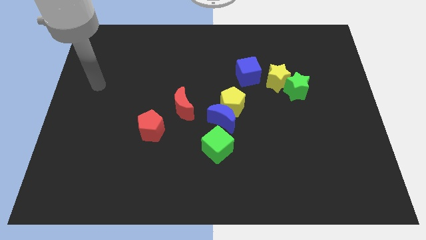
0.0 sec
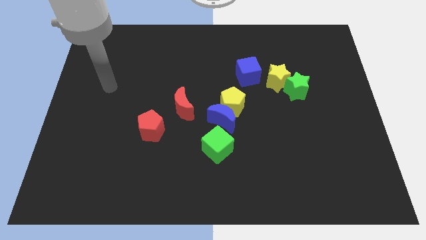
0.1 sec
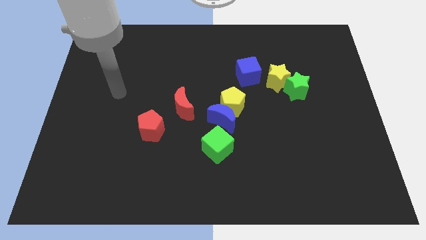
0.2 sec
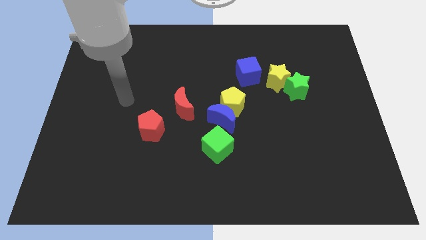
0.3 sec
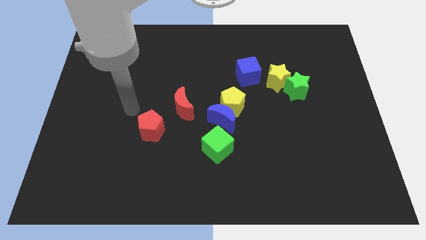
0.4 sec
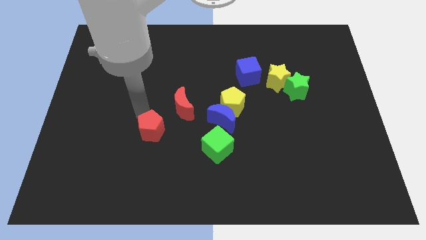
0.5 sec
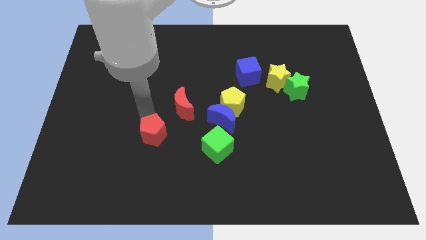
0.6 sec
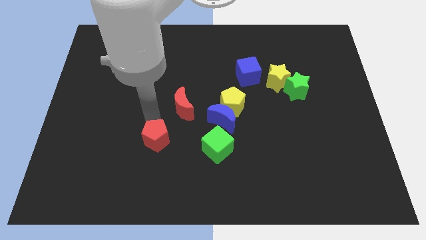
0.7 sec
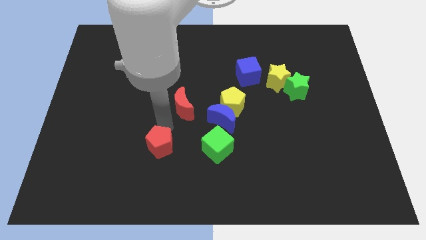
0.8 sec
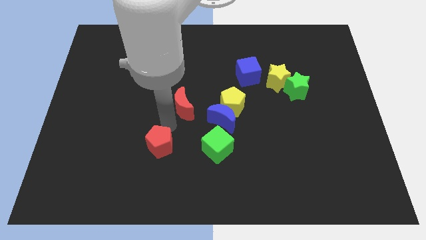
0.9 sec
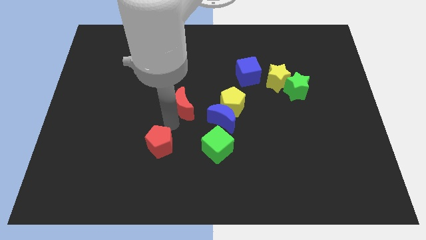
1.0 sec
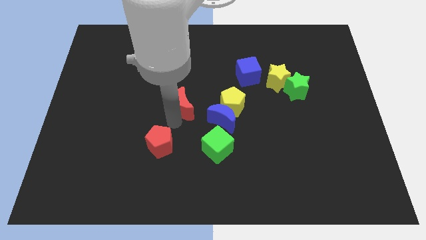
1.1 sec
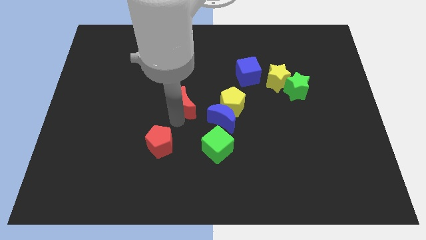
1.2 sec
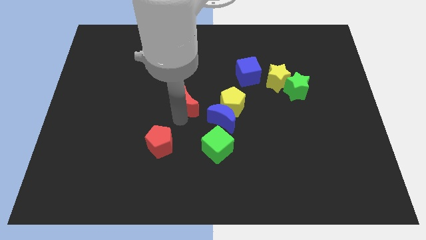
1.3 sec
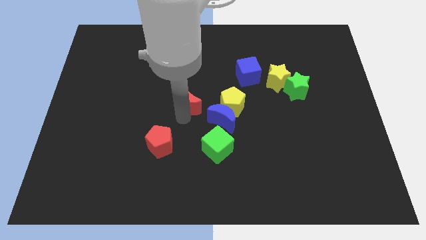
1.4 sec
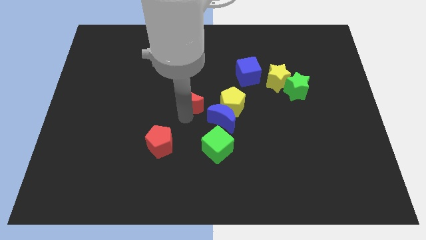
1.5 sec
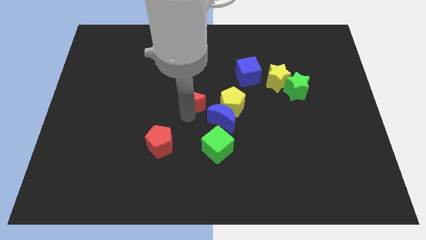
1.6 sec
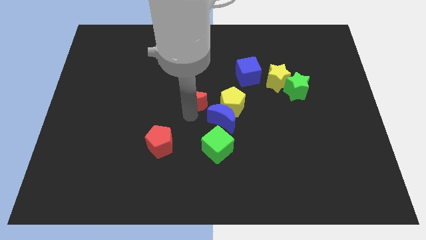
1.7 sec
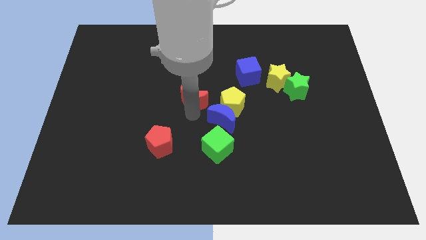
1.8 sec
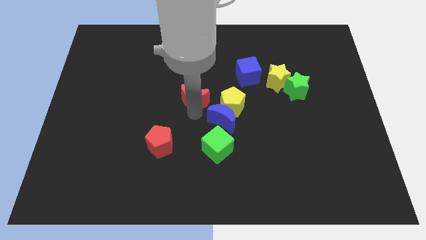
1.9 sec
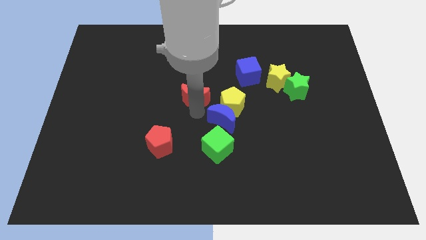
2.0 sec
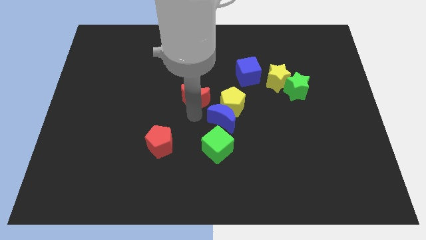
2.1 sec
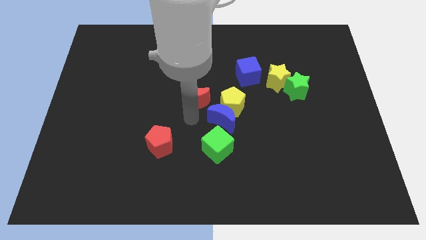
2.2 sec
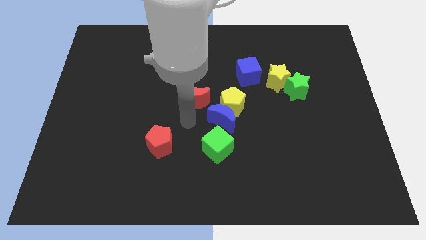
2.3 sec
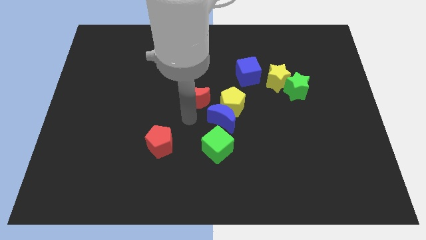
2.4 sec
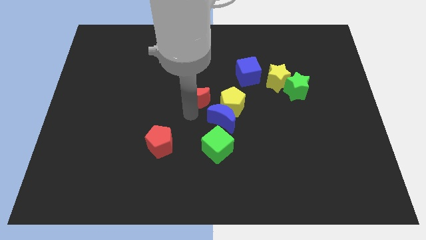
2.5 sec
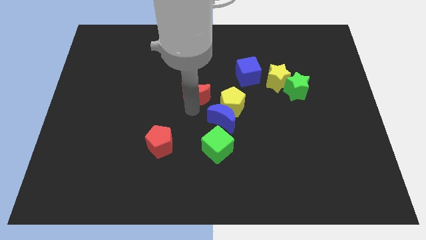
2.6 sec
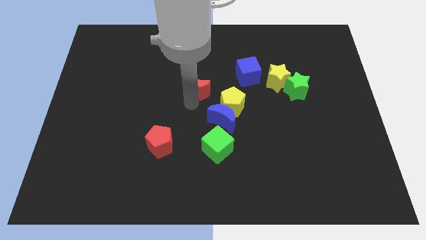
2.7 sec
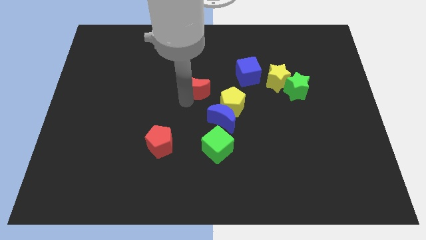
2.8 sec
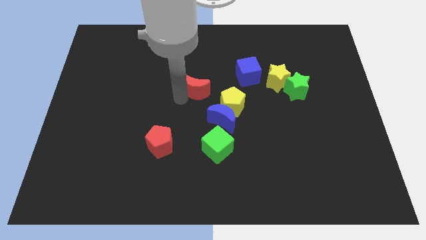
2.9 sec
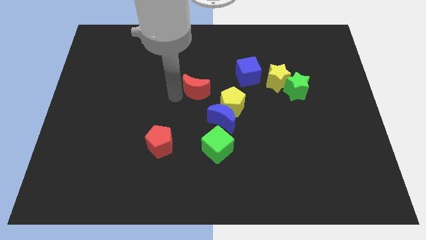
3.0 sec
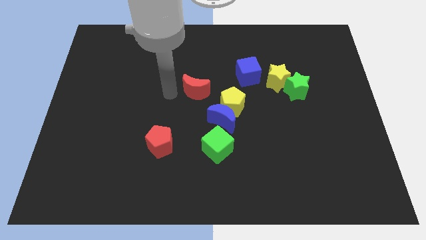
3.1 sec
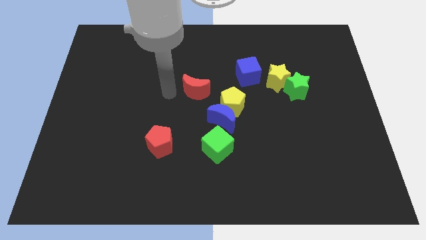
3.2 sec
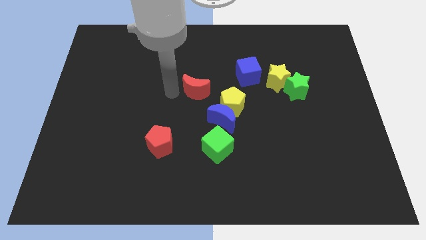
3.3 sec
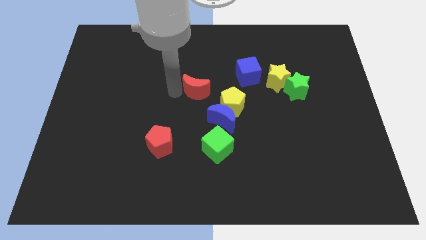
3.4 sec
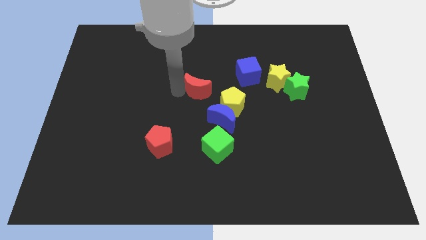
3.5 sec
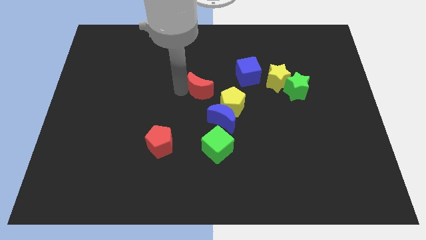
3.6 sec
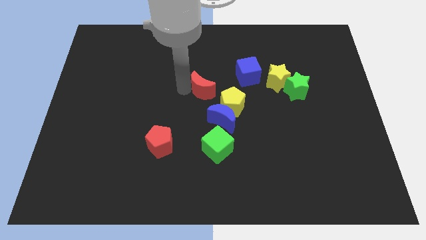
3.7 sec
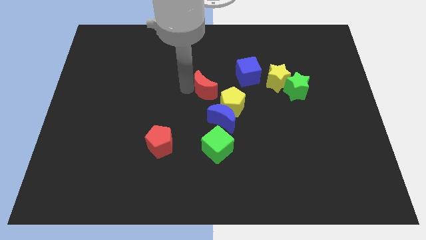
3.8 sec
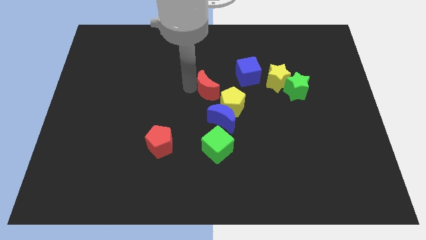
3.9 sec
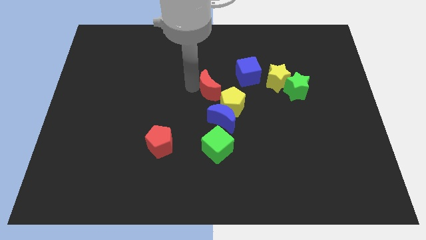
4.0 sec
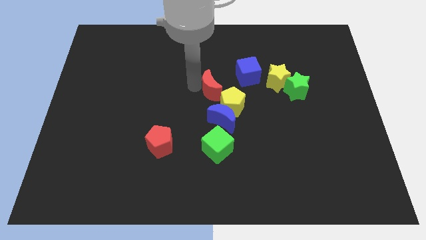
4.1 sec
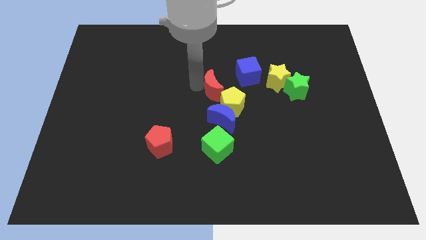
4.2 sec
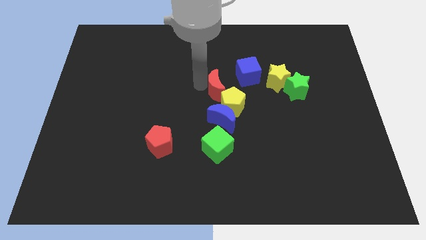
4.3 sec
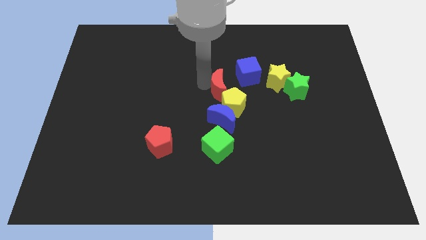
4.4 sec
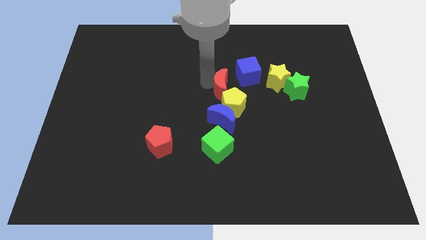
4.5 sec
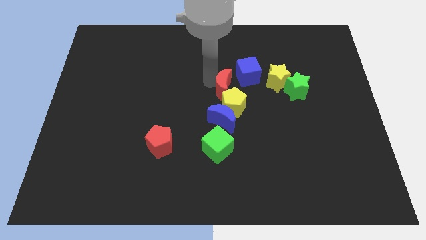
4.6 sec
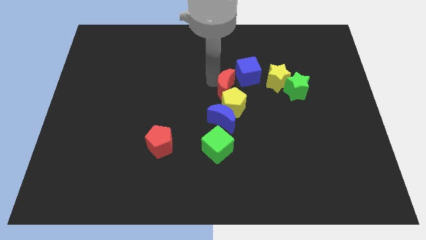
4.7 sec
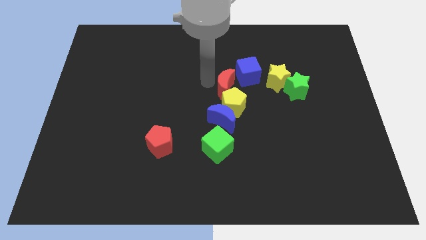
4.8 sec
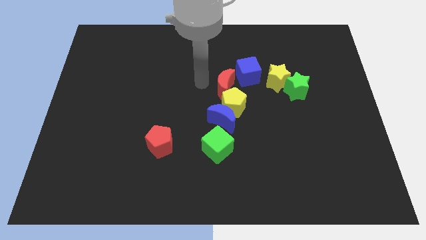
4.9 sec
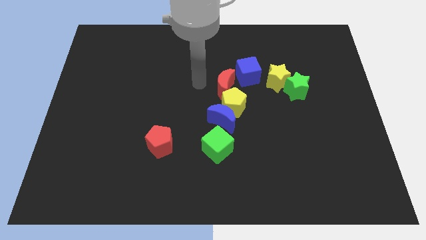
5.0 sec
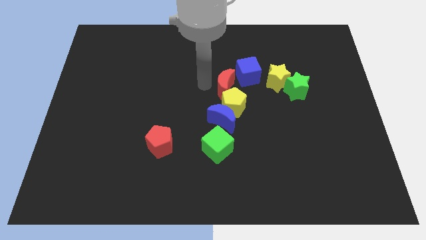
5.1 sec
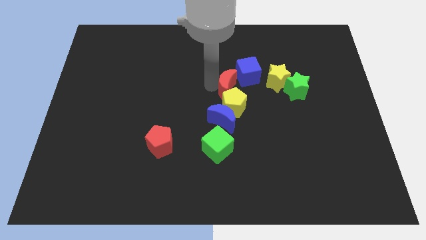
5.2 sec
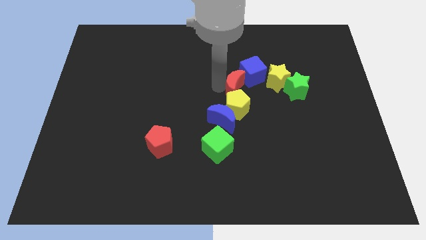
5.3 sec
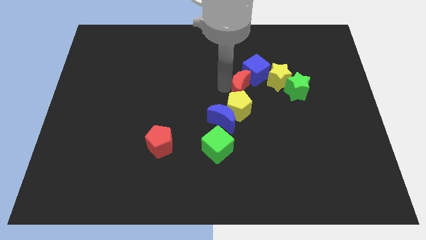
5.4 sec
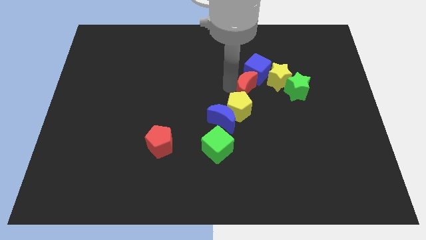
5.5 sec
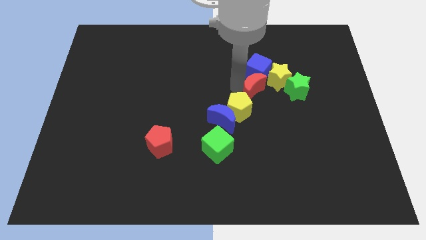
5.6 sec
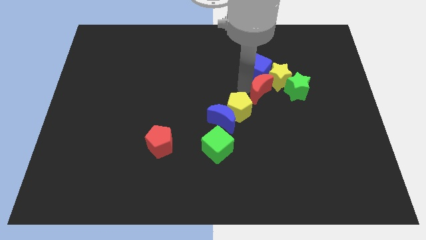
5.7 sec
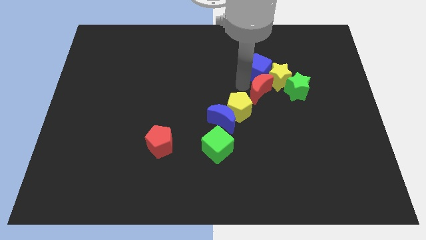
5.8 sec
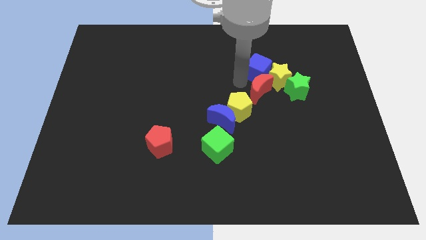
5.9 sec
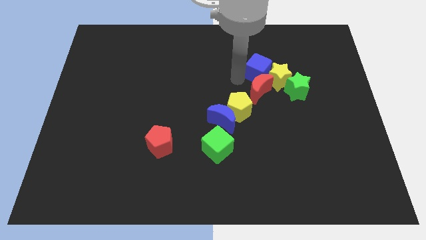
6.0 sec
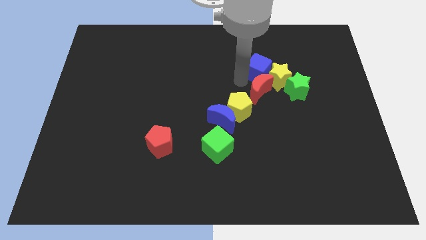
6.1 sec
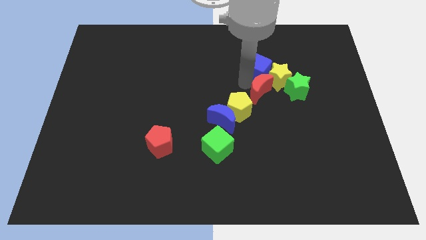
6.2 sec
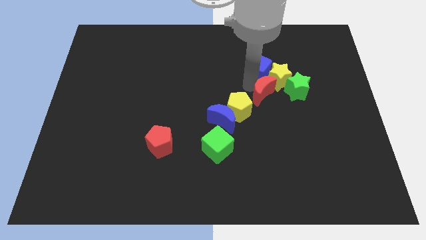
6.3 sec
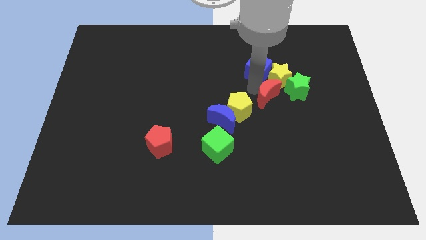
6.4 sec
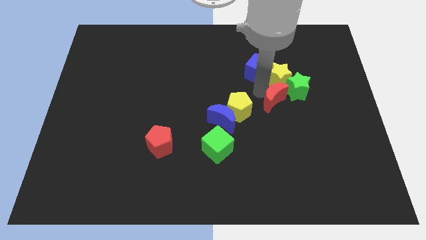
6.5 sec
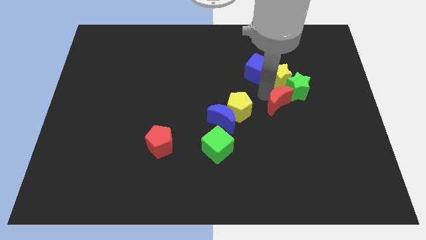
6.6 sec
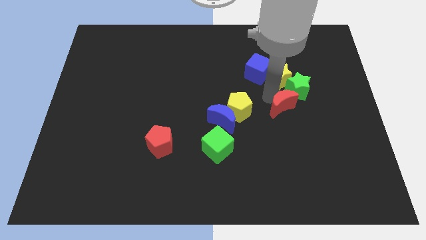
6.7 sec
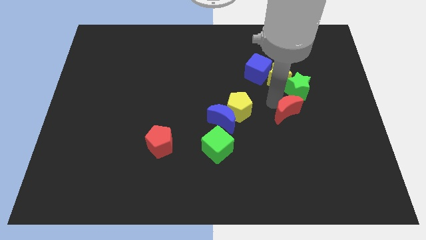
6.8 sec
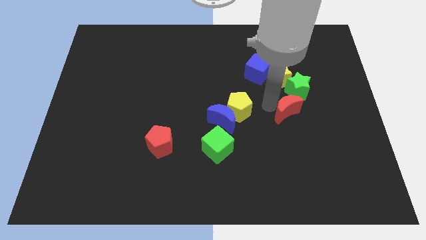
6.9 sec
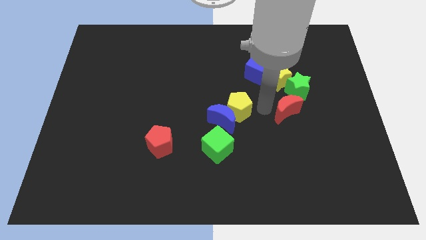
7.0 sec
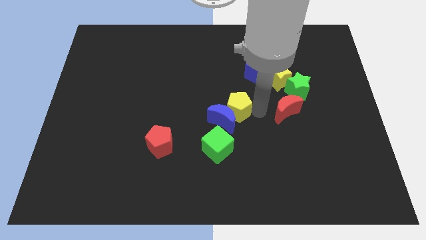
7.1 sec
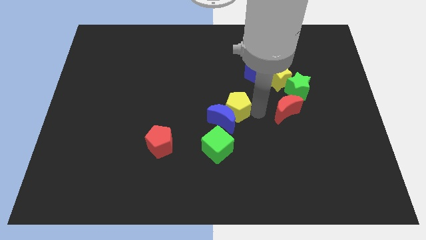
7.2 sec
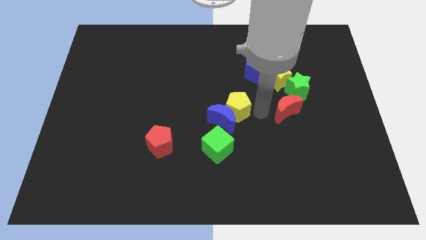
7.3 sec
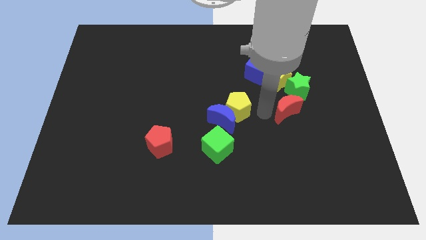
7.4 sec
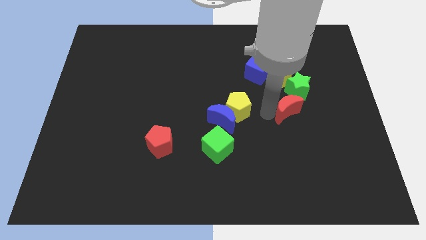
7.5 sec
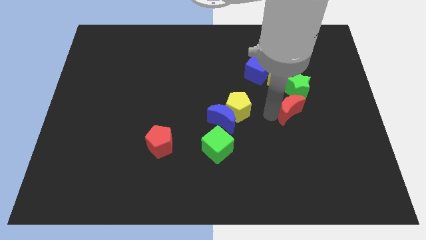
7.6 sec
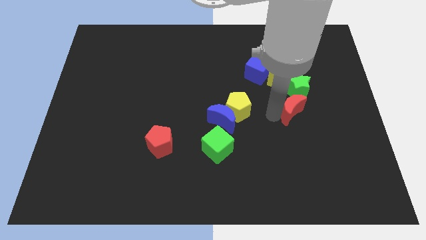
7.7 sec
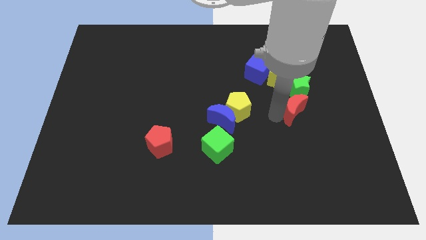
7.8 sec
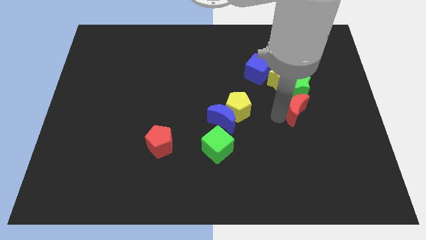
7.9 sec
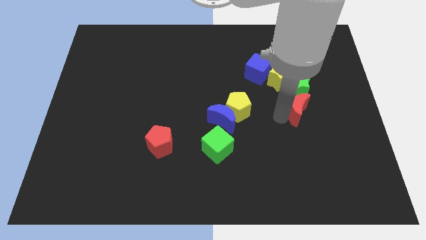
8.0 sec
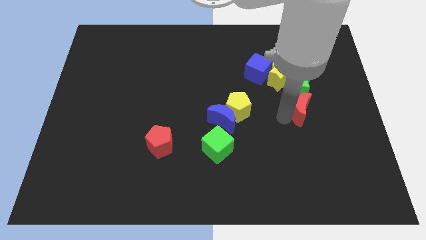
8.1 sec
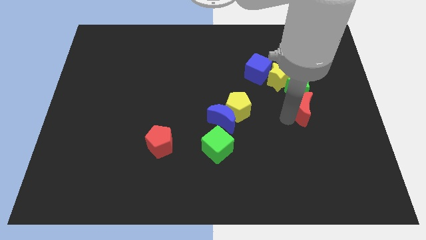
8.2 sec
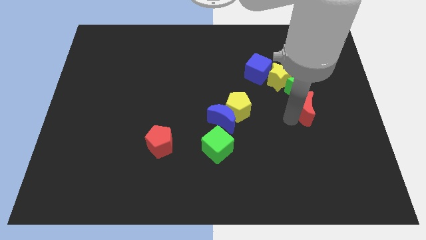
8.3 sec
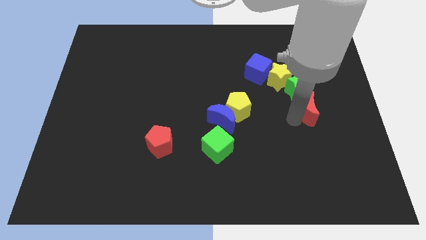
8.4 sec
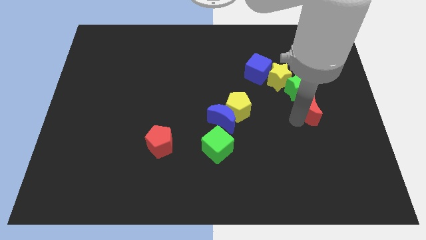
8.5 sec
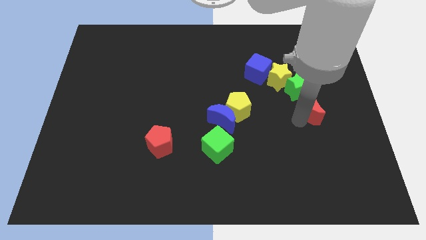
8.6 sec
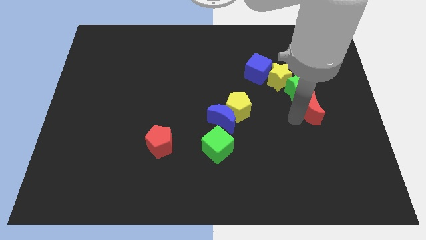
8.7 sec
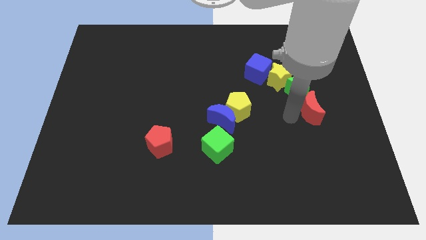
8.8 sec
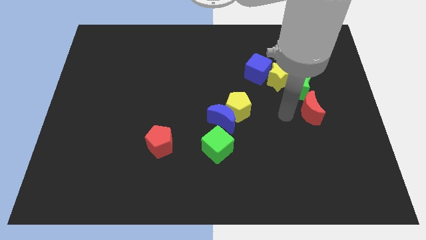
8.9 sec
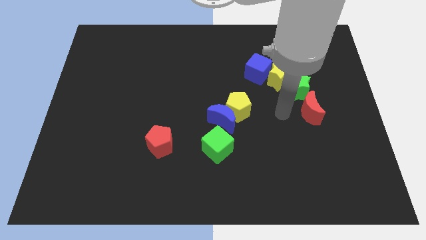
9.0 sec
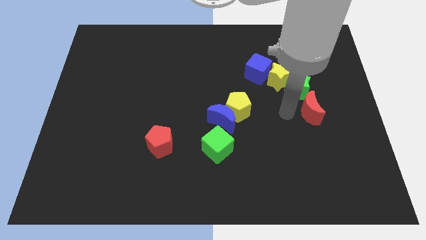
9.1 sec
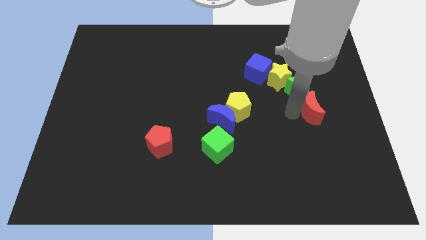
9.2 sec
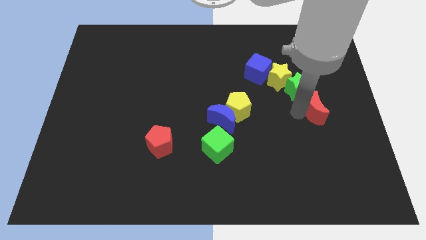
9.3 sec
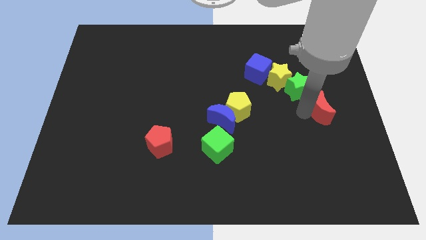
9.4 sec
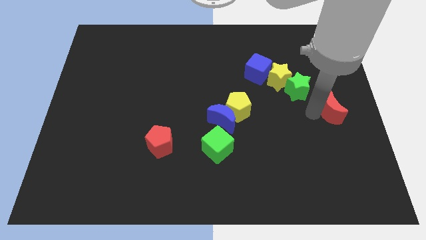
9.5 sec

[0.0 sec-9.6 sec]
push the red moon to the center right
